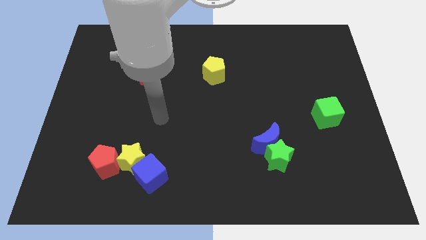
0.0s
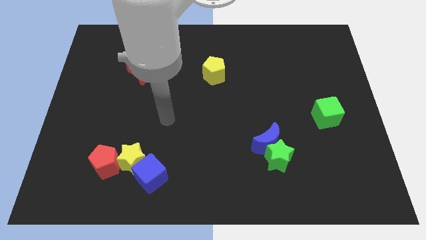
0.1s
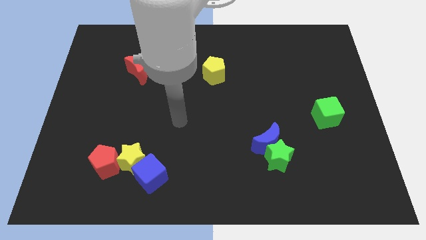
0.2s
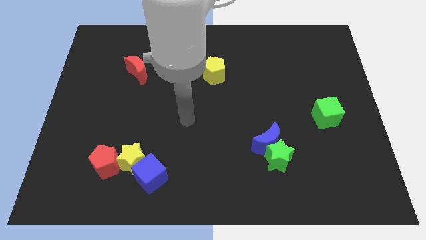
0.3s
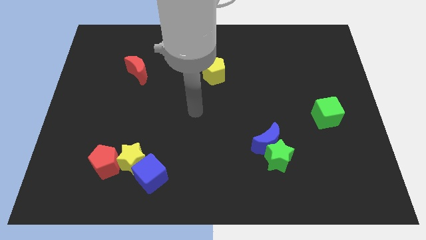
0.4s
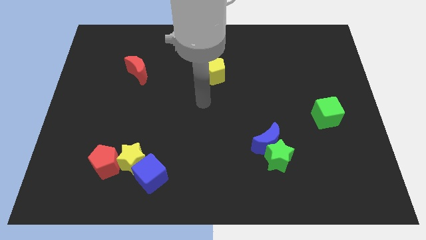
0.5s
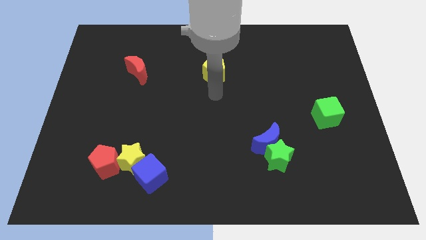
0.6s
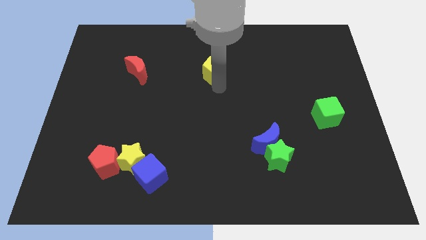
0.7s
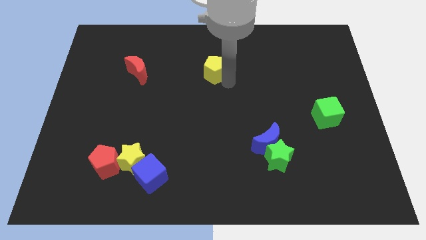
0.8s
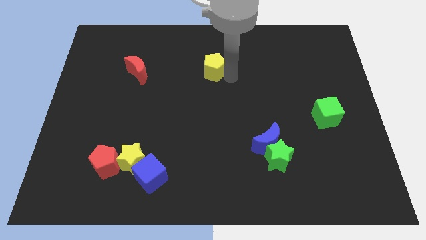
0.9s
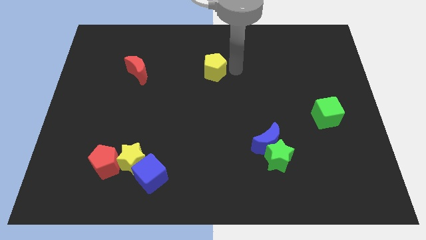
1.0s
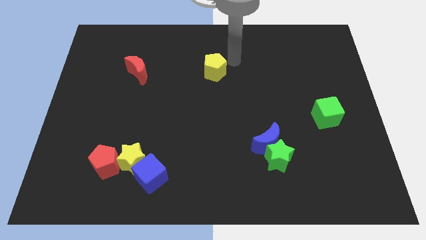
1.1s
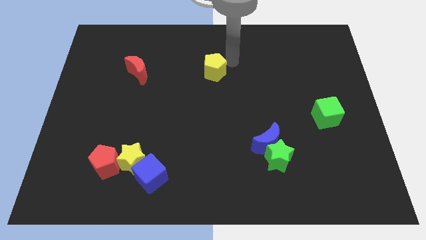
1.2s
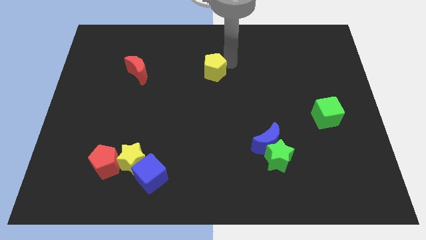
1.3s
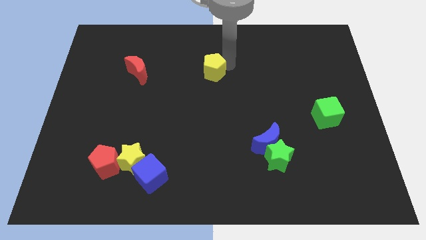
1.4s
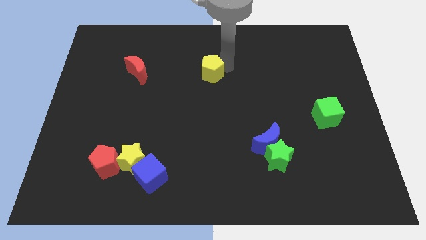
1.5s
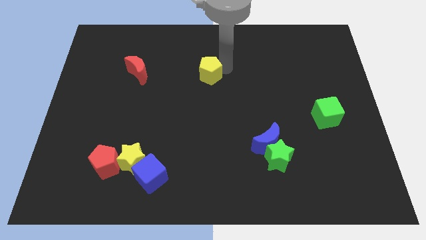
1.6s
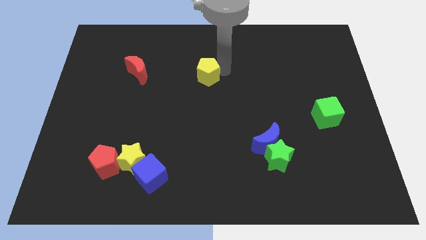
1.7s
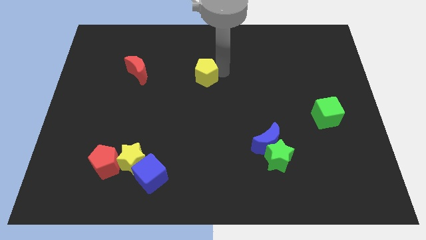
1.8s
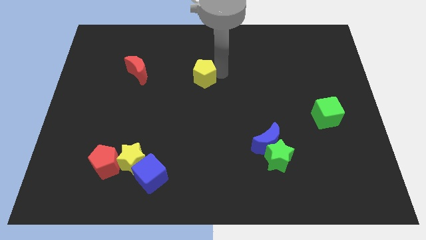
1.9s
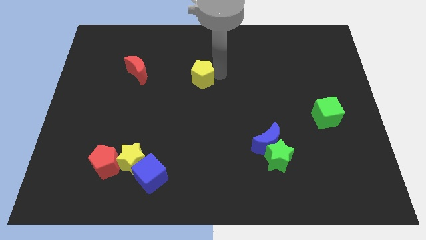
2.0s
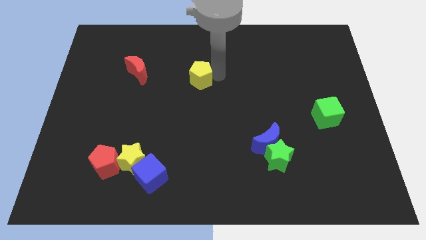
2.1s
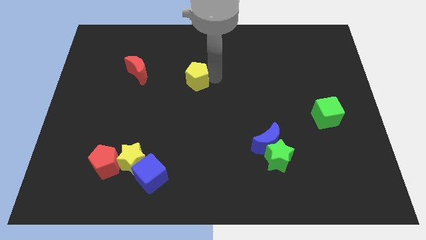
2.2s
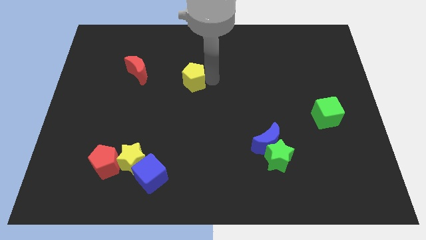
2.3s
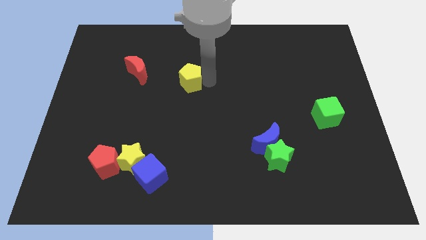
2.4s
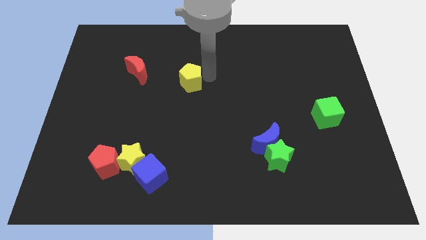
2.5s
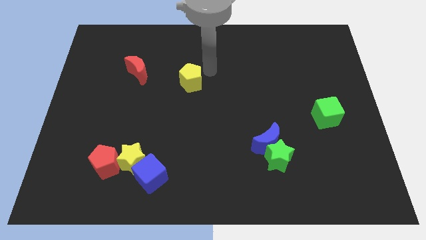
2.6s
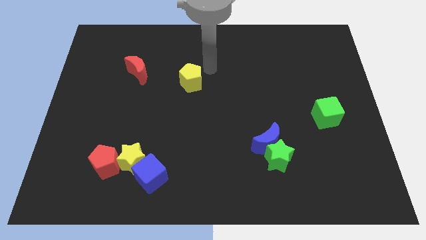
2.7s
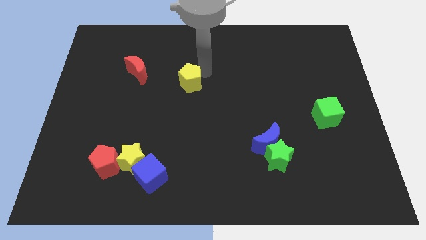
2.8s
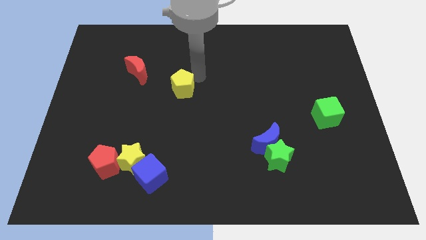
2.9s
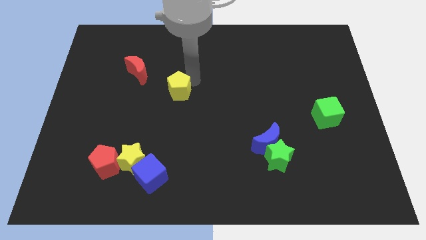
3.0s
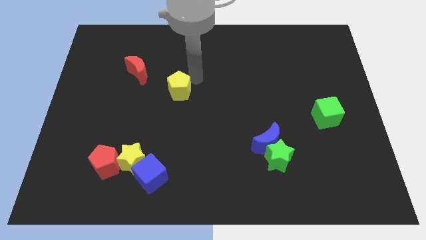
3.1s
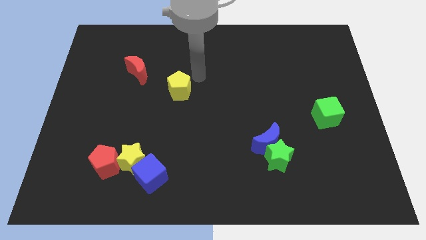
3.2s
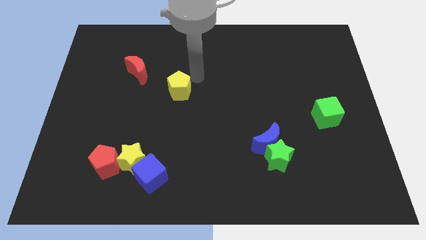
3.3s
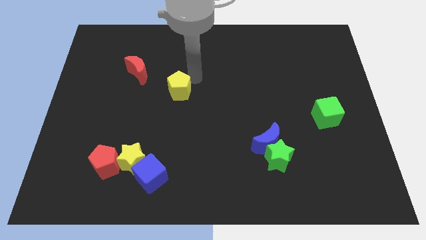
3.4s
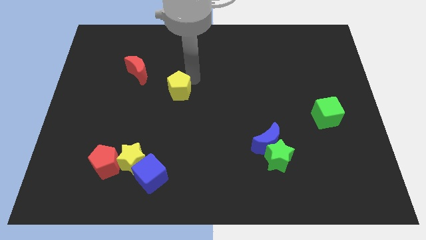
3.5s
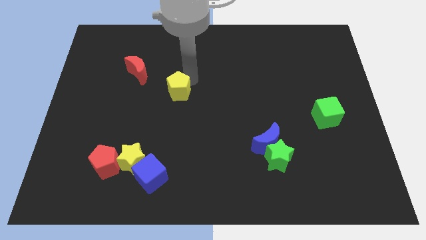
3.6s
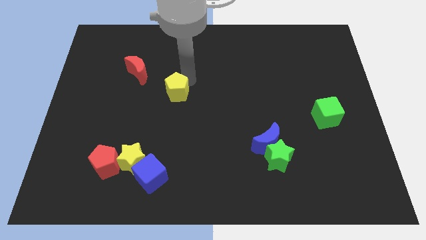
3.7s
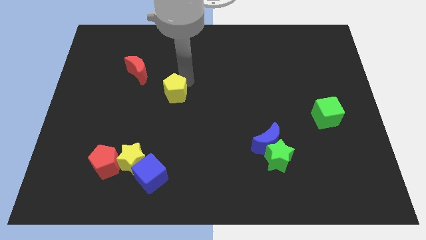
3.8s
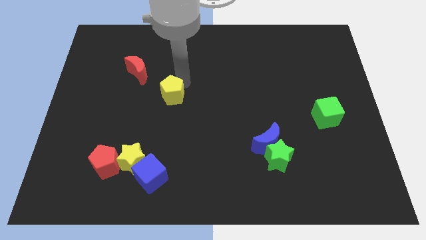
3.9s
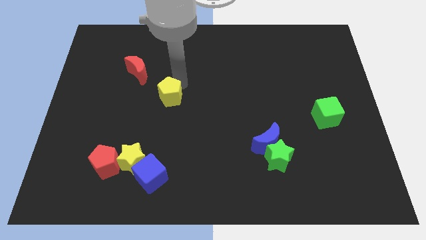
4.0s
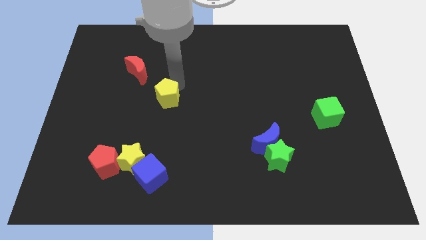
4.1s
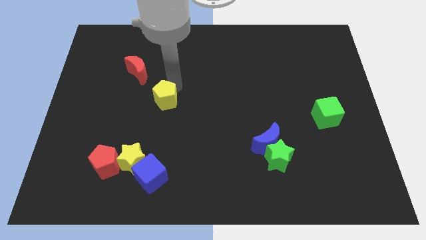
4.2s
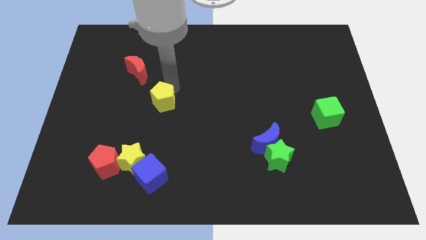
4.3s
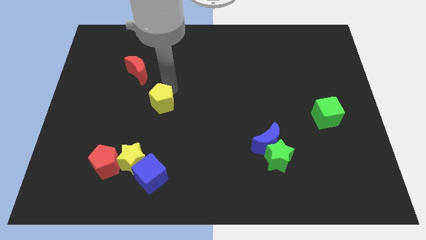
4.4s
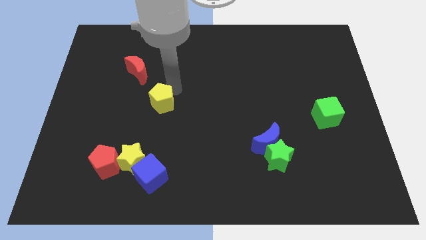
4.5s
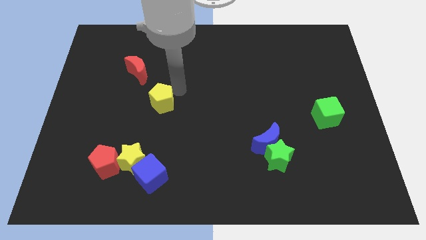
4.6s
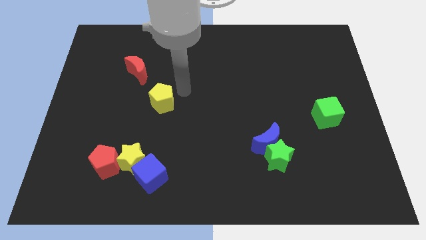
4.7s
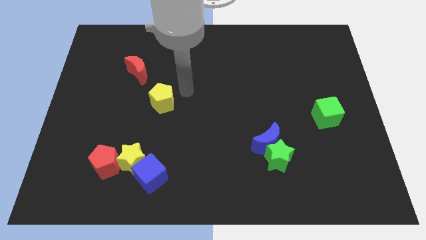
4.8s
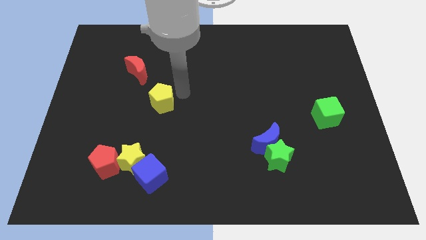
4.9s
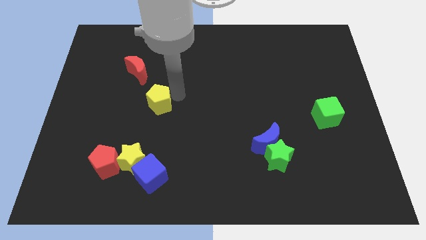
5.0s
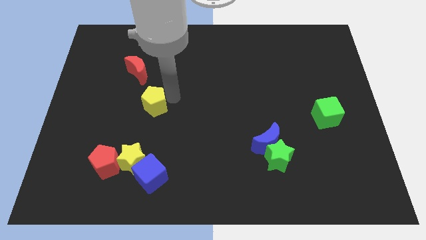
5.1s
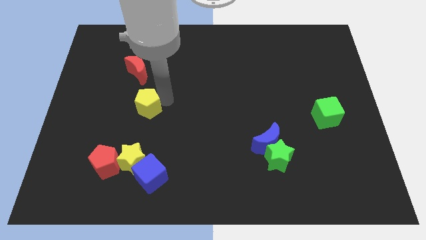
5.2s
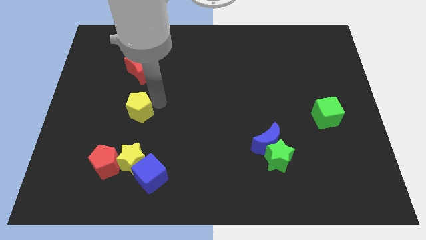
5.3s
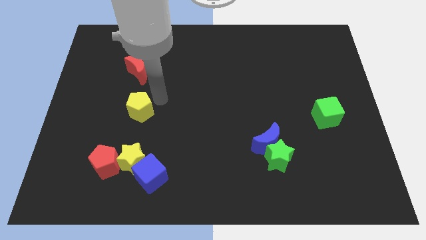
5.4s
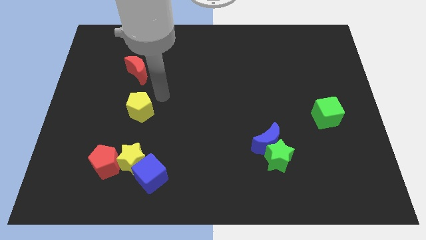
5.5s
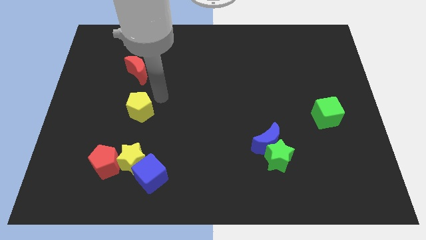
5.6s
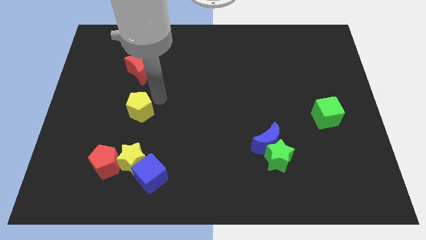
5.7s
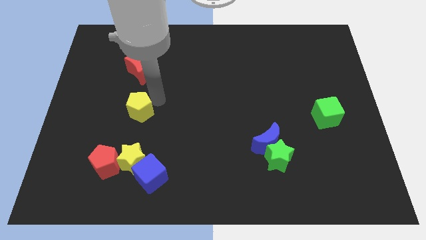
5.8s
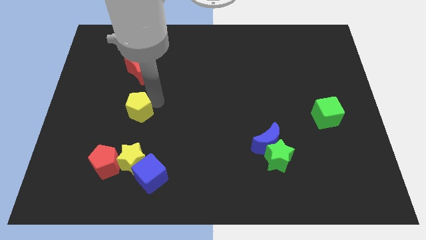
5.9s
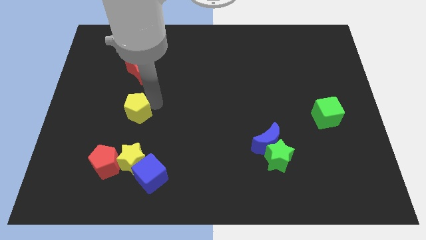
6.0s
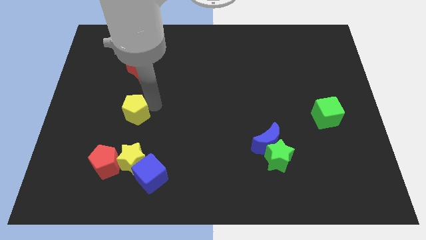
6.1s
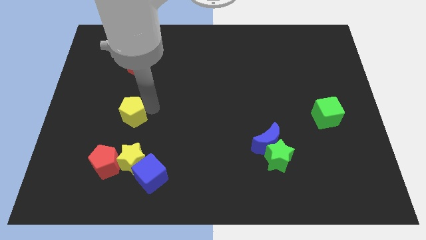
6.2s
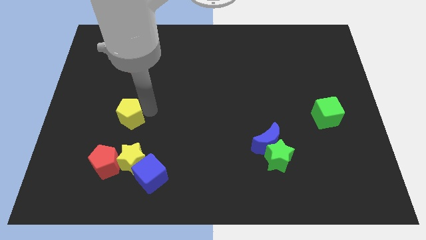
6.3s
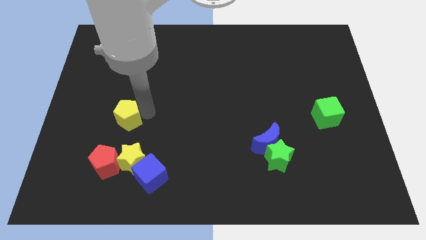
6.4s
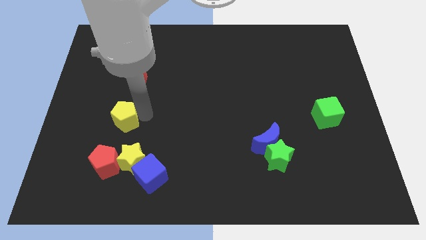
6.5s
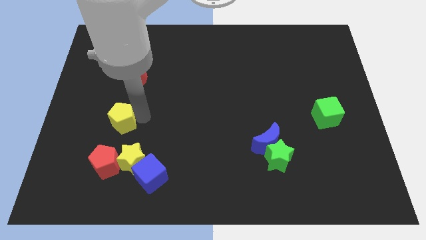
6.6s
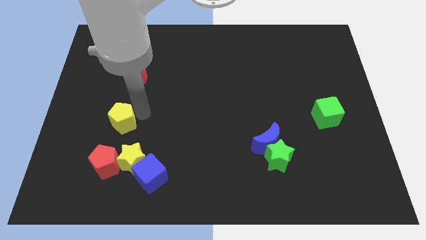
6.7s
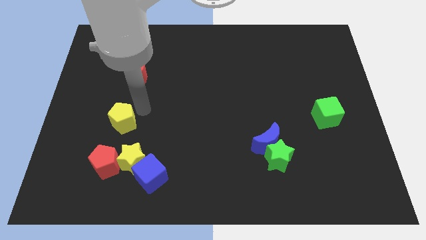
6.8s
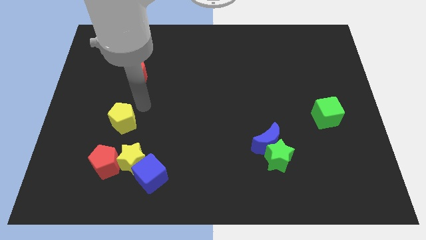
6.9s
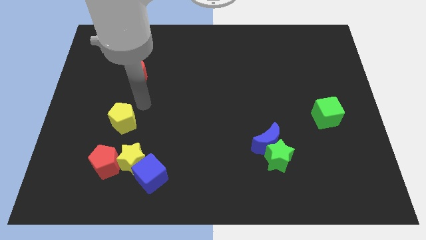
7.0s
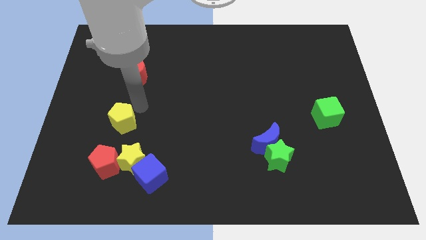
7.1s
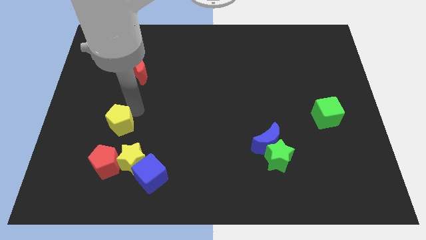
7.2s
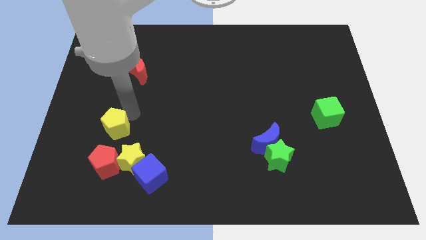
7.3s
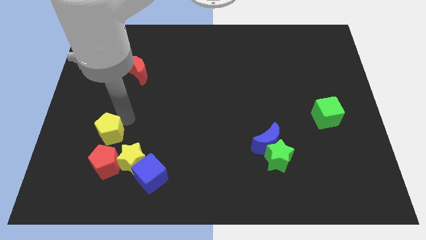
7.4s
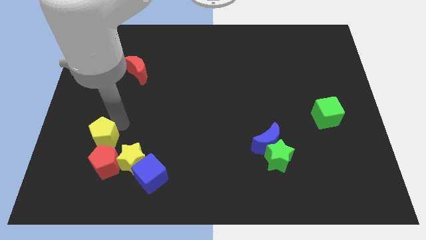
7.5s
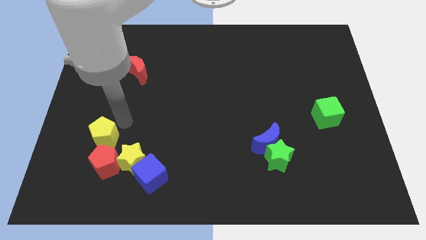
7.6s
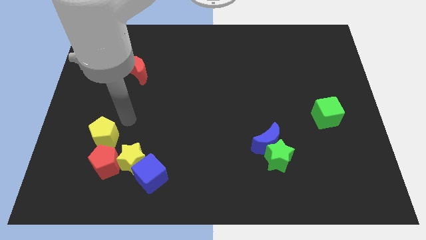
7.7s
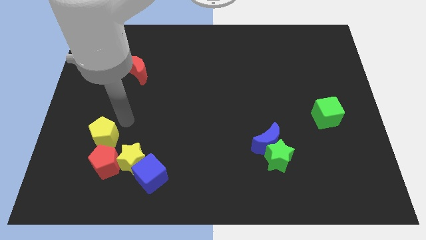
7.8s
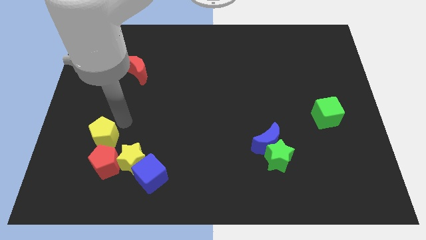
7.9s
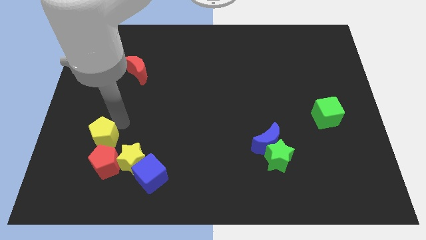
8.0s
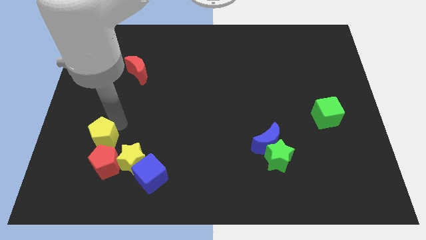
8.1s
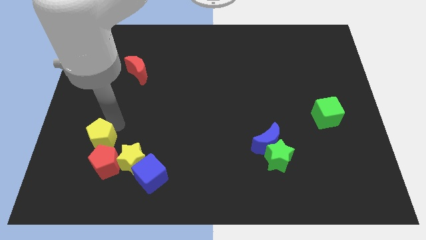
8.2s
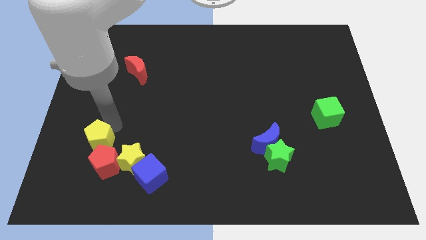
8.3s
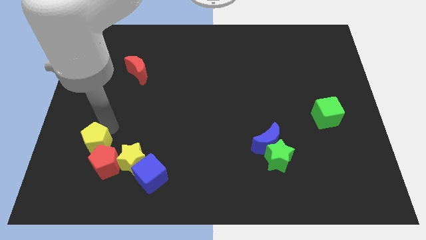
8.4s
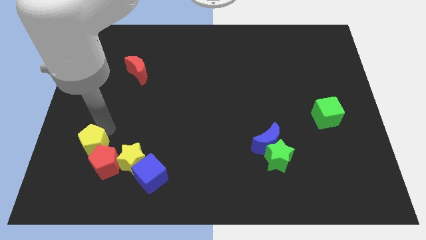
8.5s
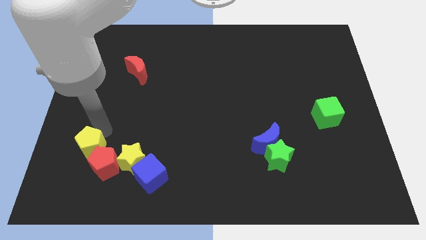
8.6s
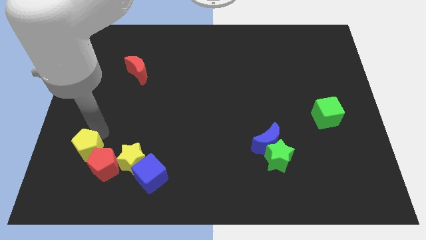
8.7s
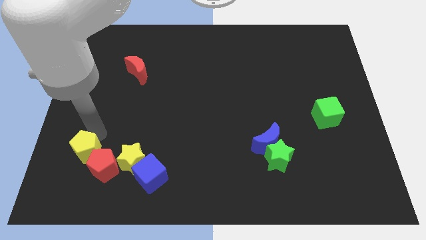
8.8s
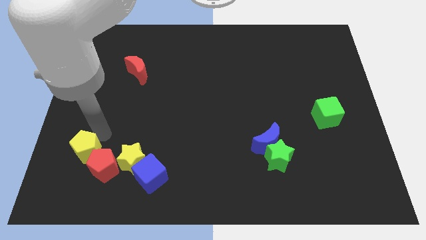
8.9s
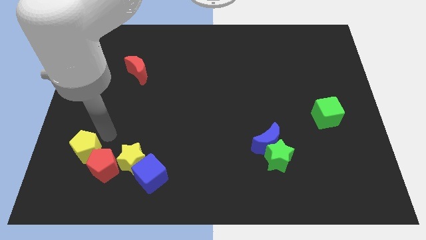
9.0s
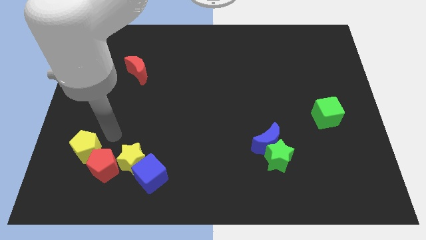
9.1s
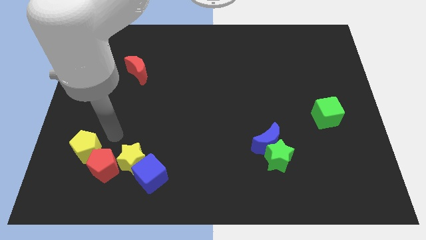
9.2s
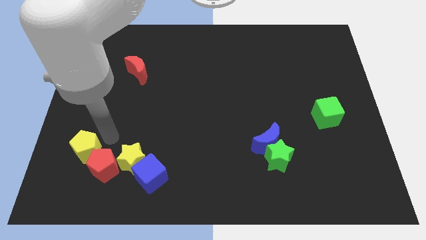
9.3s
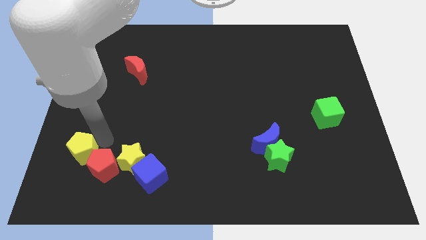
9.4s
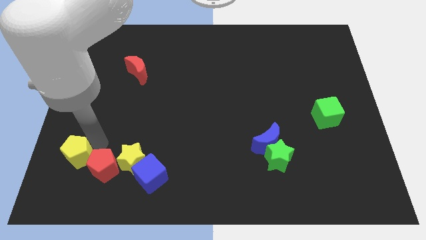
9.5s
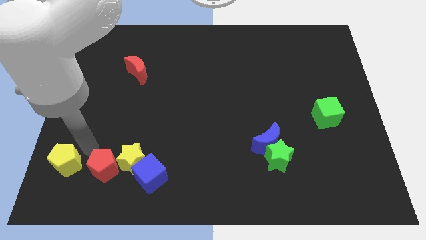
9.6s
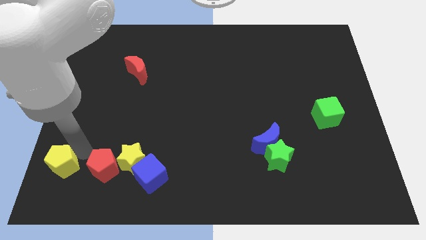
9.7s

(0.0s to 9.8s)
put the yellow pentagon to the bottom left
